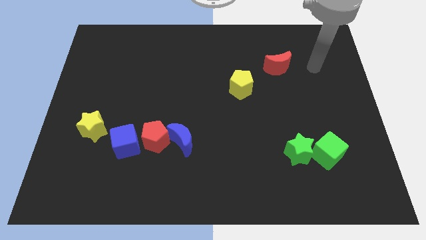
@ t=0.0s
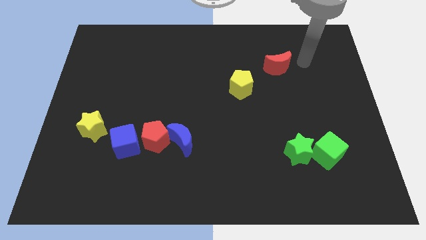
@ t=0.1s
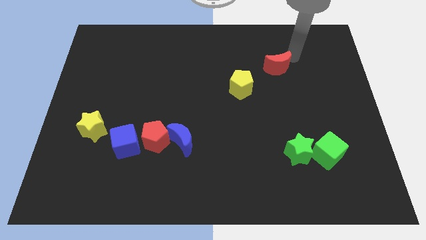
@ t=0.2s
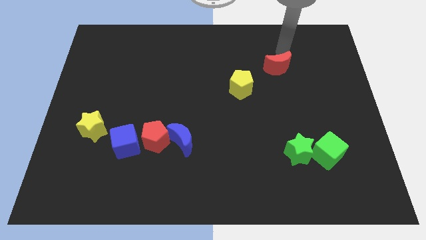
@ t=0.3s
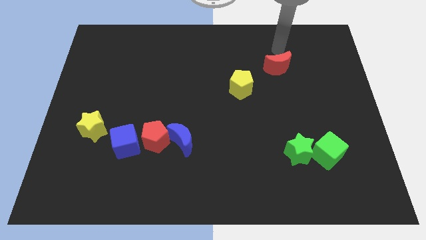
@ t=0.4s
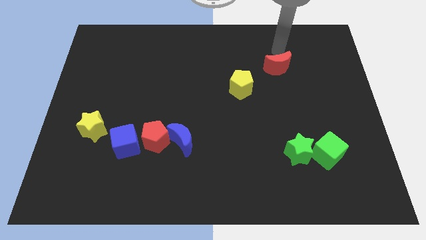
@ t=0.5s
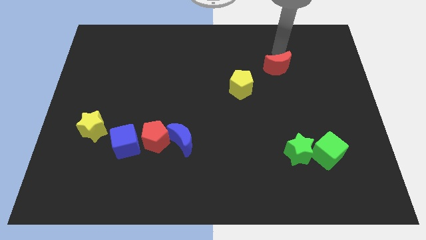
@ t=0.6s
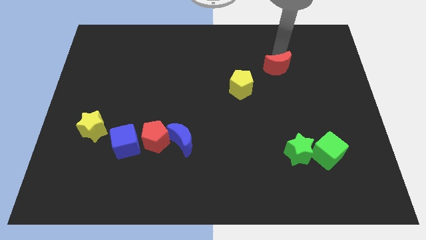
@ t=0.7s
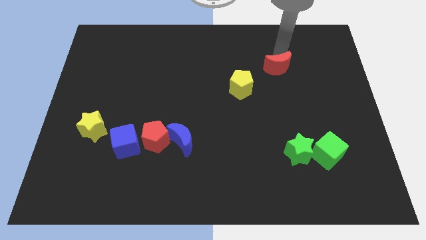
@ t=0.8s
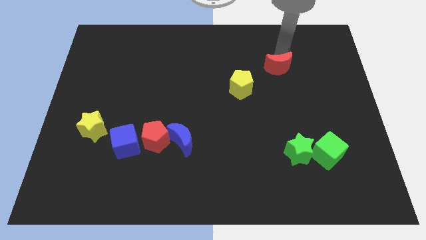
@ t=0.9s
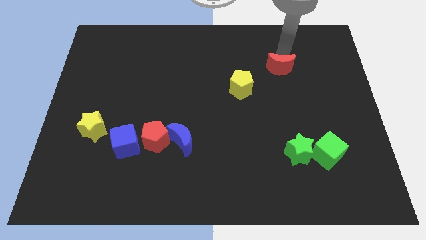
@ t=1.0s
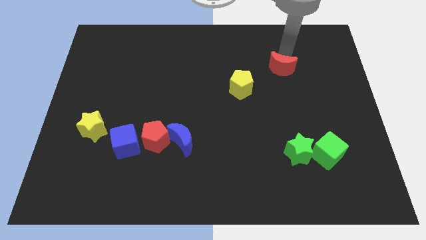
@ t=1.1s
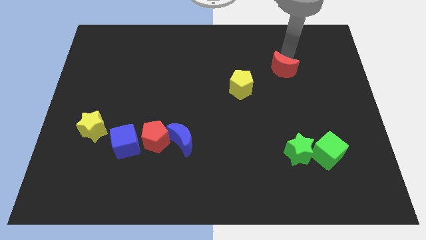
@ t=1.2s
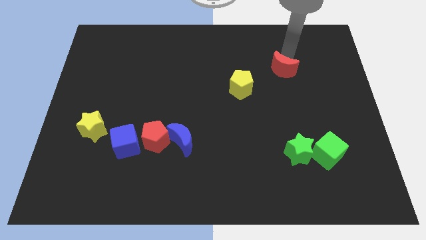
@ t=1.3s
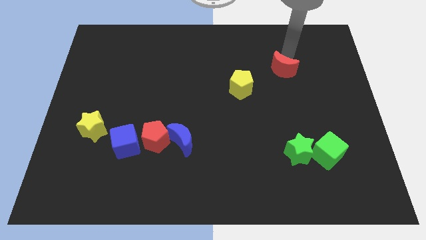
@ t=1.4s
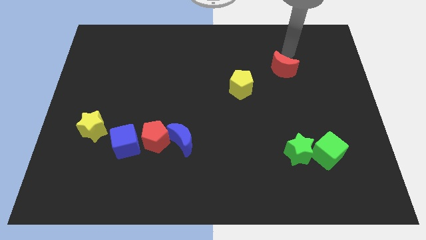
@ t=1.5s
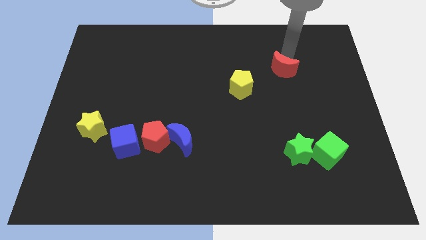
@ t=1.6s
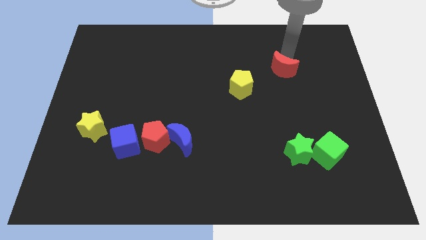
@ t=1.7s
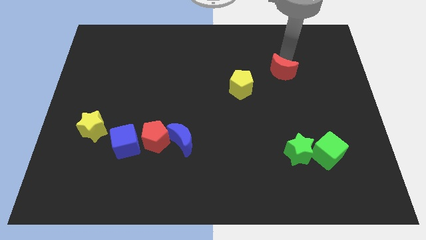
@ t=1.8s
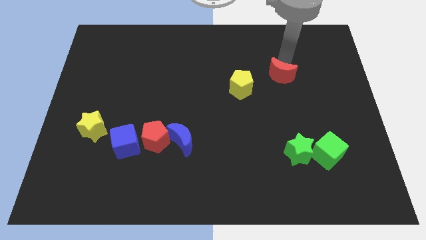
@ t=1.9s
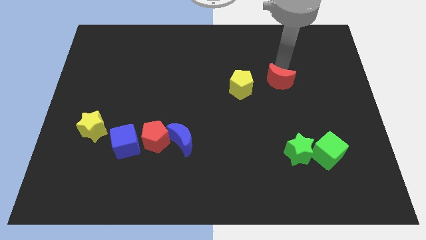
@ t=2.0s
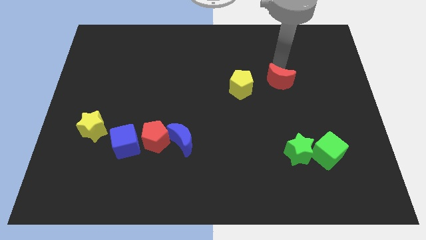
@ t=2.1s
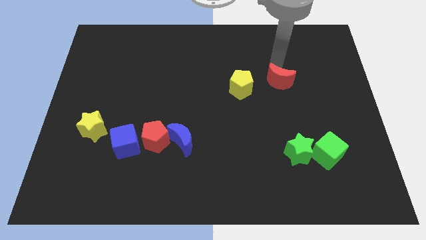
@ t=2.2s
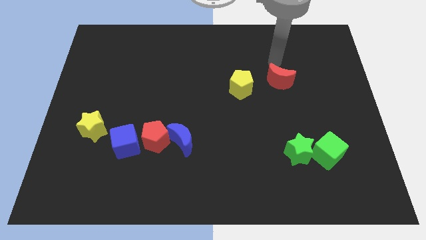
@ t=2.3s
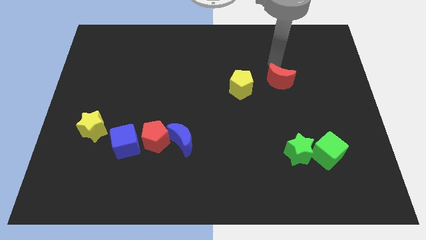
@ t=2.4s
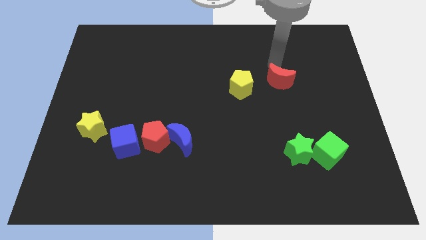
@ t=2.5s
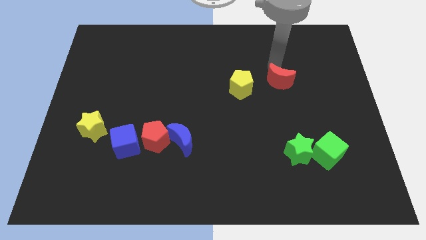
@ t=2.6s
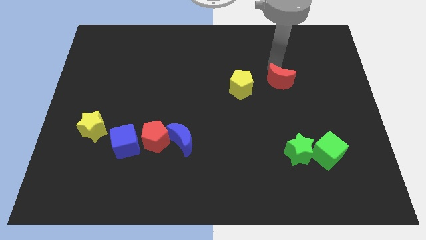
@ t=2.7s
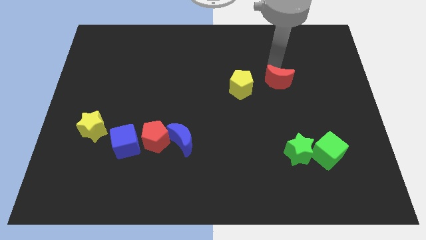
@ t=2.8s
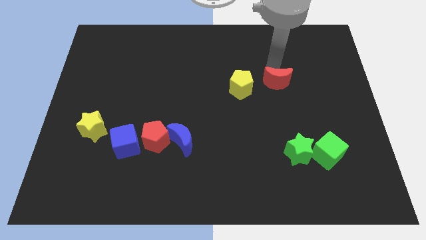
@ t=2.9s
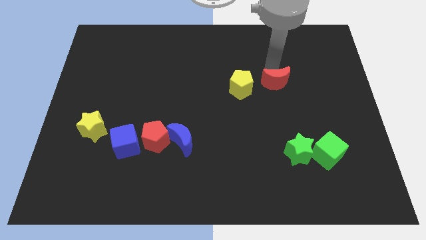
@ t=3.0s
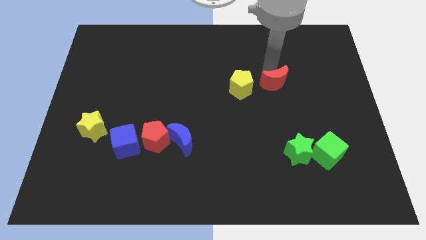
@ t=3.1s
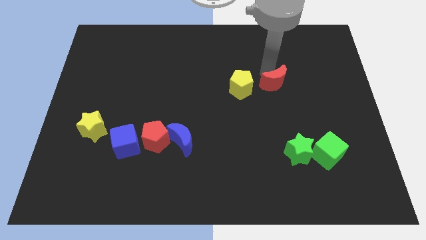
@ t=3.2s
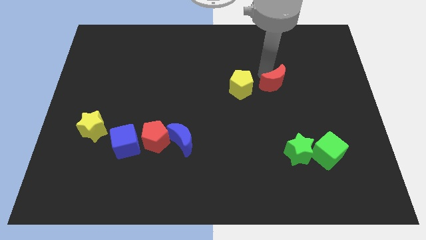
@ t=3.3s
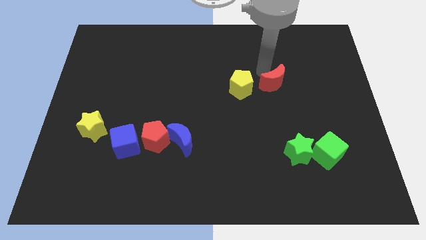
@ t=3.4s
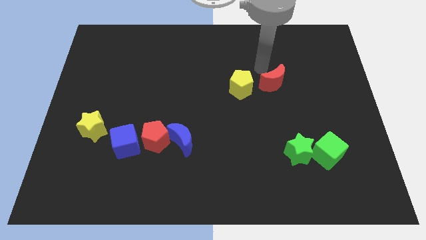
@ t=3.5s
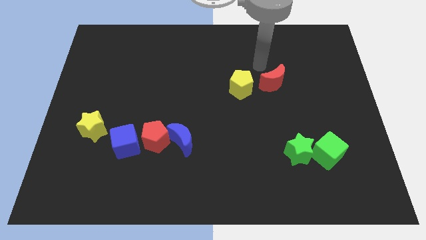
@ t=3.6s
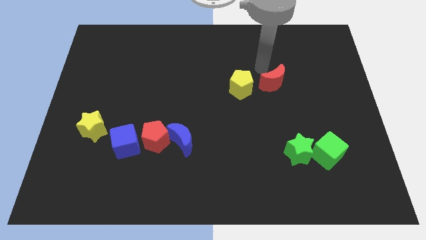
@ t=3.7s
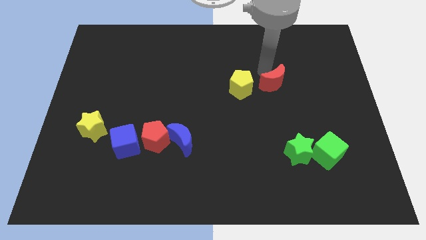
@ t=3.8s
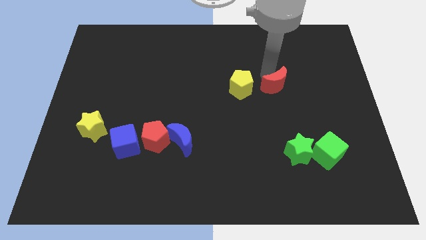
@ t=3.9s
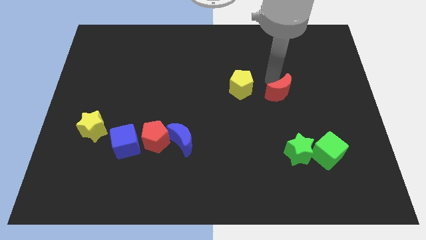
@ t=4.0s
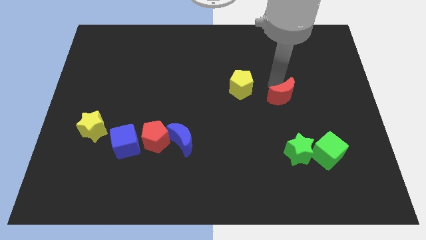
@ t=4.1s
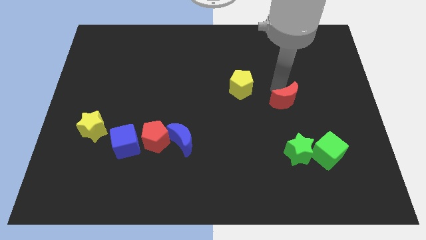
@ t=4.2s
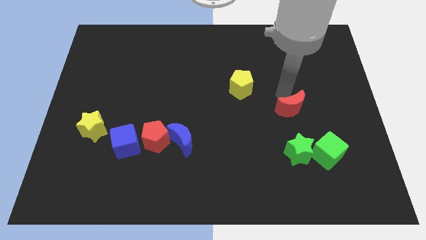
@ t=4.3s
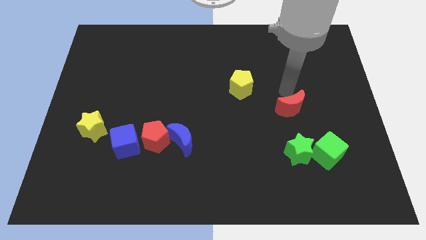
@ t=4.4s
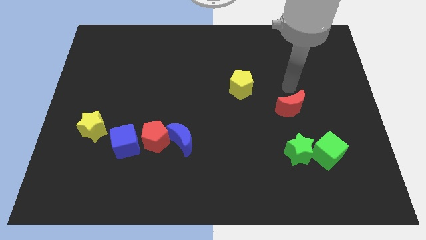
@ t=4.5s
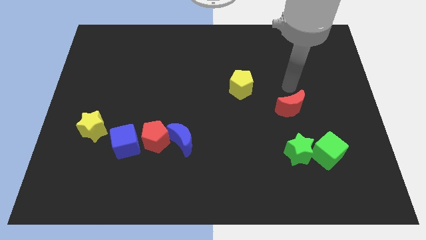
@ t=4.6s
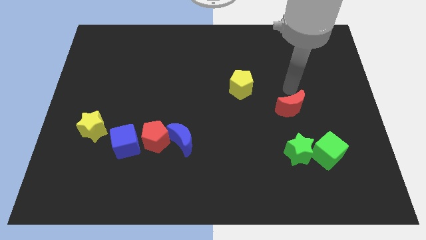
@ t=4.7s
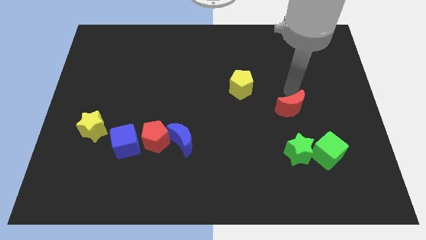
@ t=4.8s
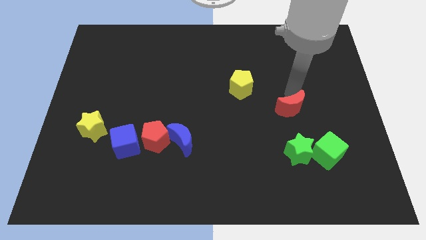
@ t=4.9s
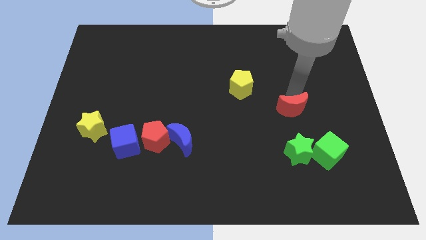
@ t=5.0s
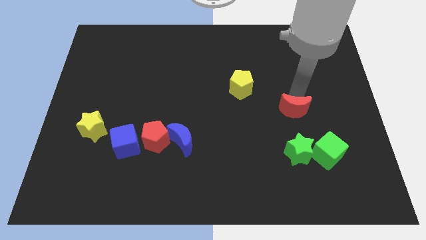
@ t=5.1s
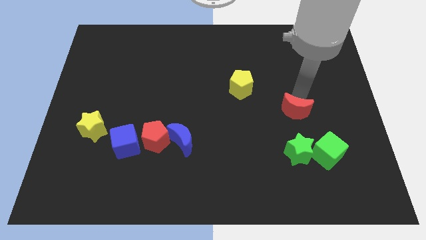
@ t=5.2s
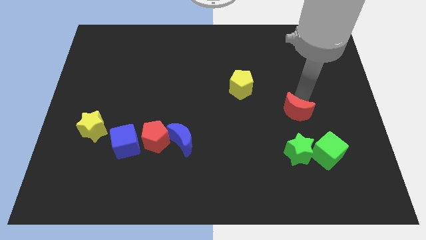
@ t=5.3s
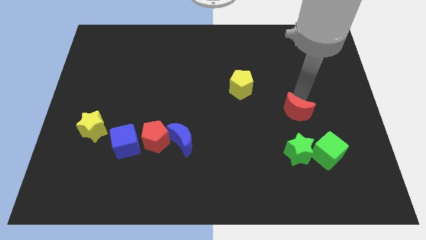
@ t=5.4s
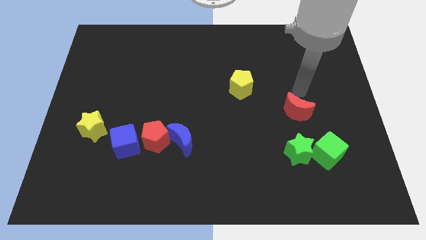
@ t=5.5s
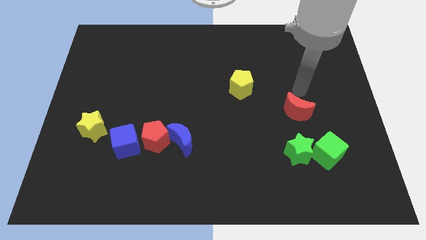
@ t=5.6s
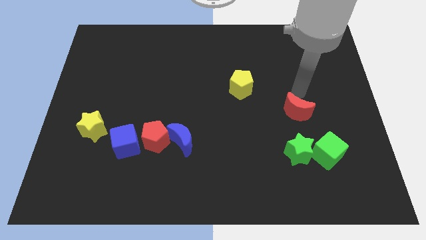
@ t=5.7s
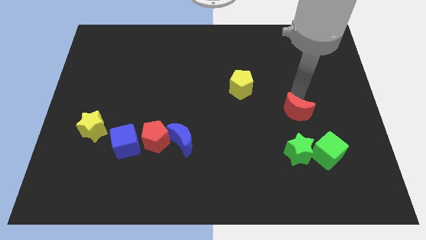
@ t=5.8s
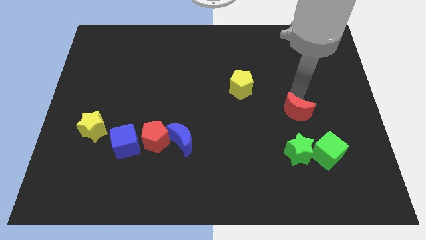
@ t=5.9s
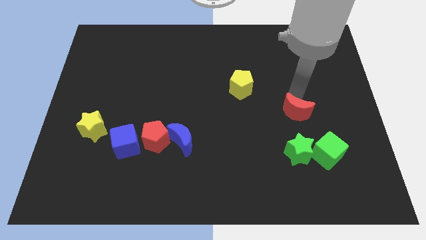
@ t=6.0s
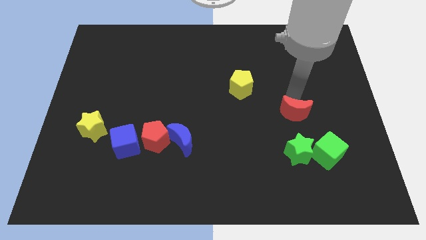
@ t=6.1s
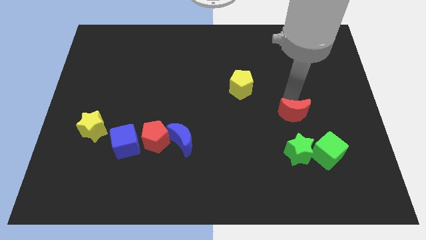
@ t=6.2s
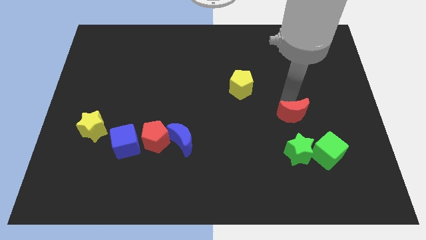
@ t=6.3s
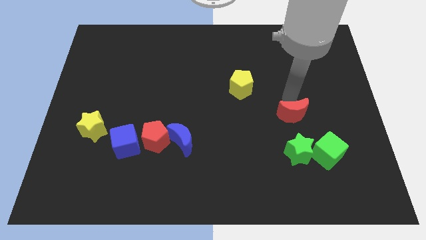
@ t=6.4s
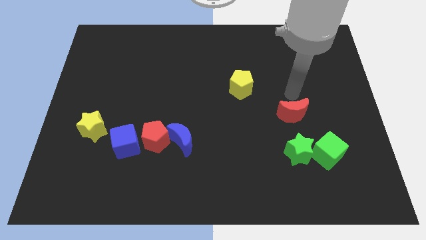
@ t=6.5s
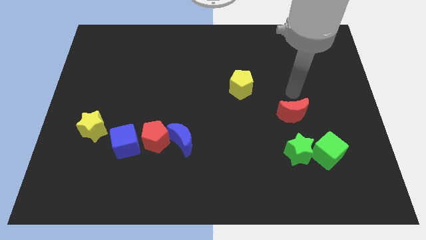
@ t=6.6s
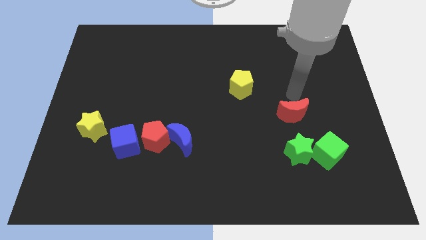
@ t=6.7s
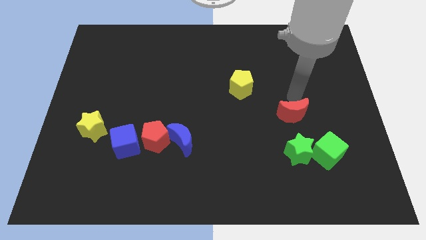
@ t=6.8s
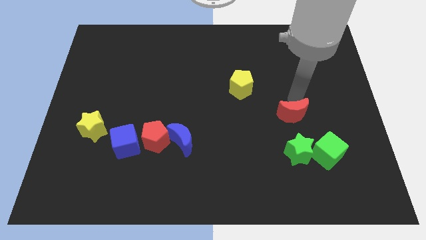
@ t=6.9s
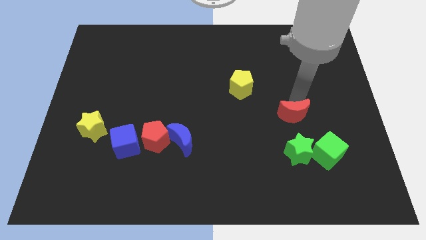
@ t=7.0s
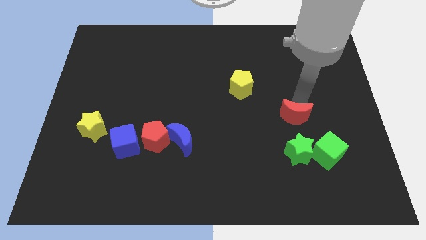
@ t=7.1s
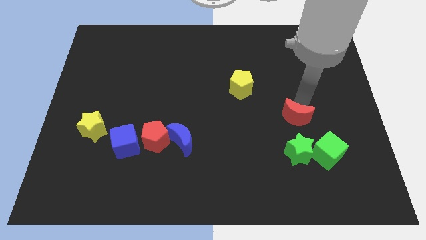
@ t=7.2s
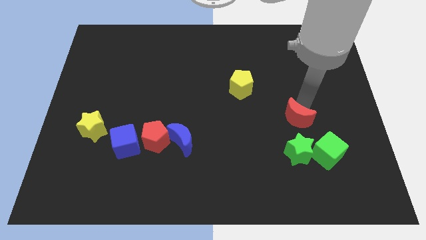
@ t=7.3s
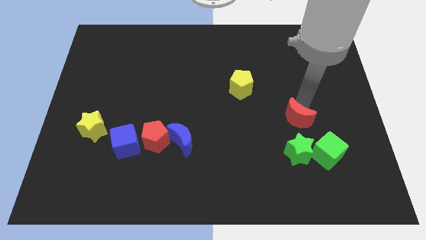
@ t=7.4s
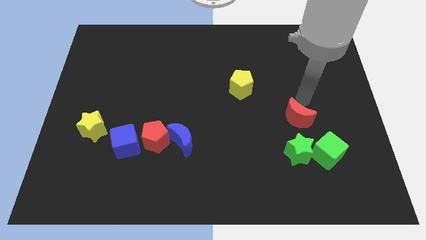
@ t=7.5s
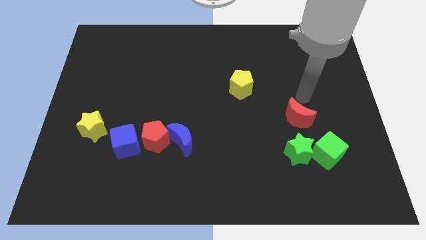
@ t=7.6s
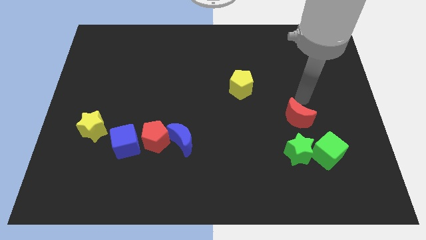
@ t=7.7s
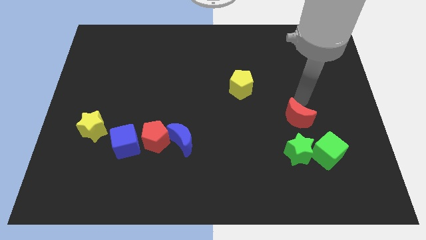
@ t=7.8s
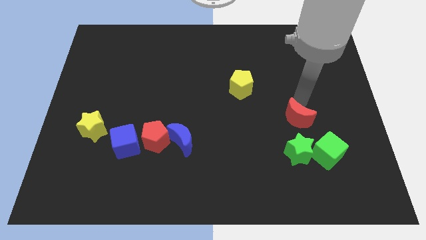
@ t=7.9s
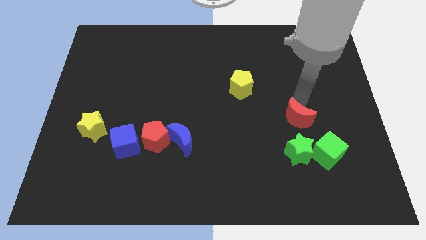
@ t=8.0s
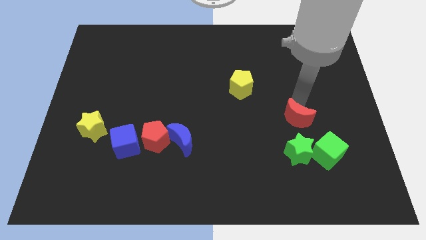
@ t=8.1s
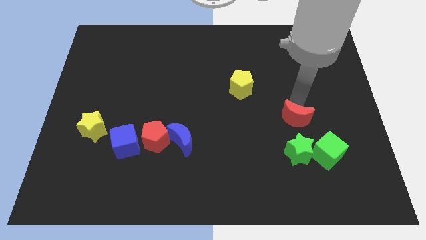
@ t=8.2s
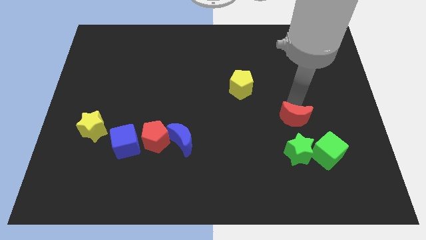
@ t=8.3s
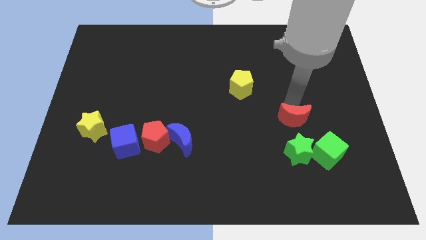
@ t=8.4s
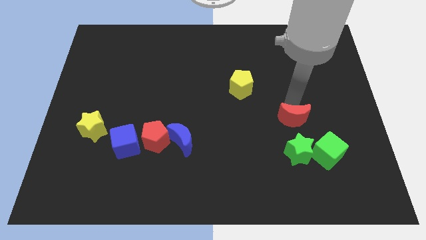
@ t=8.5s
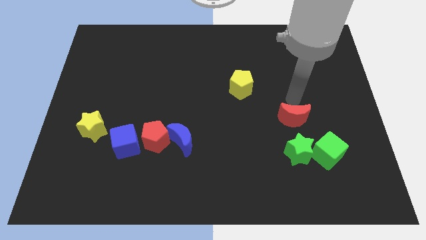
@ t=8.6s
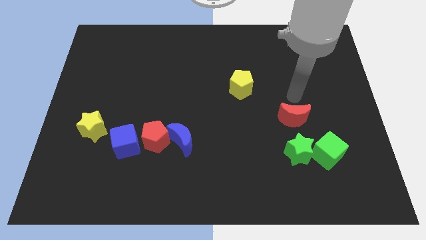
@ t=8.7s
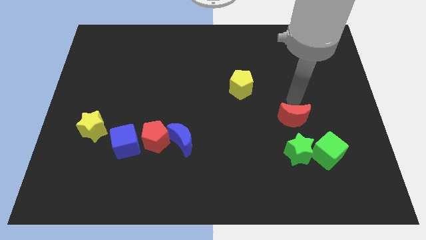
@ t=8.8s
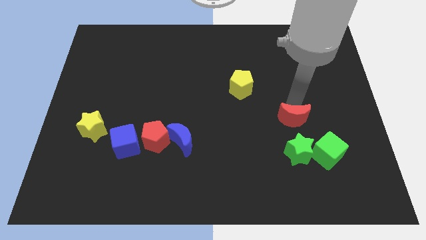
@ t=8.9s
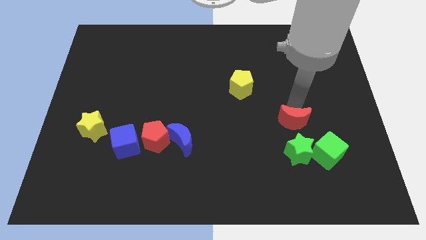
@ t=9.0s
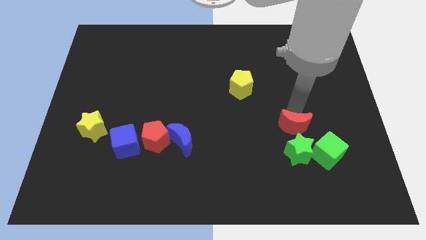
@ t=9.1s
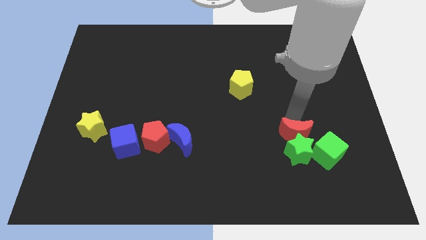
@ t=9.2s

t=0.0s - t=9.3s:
move the red moon close to the green star
